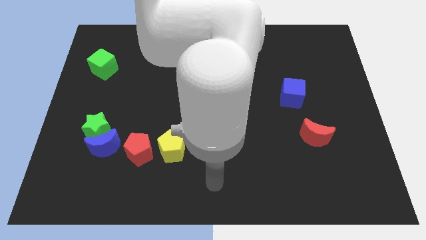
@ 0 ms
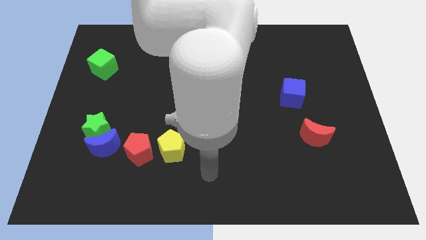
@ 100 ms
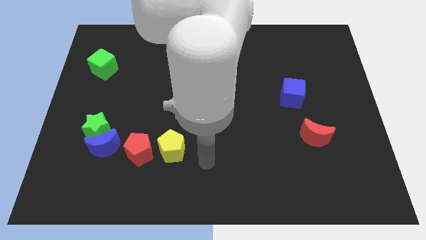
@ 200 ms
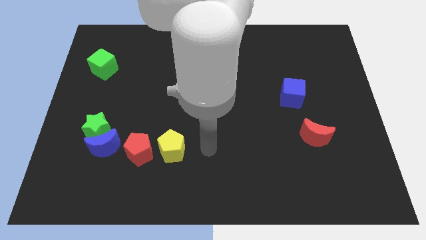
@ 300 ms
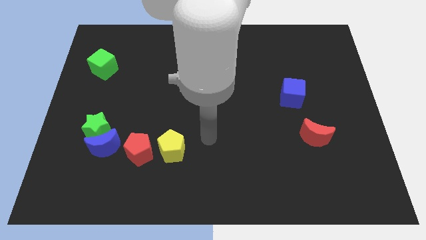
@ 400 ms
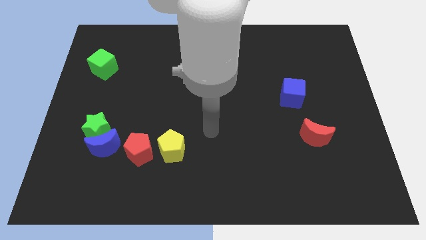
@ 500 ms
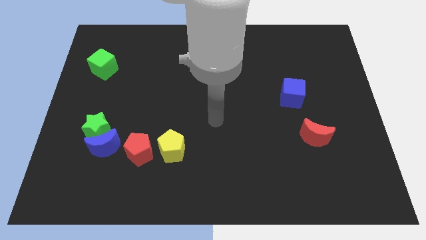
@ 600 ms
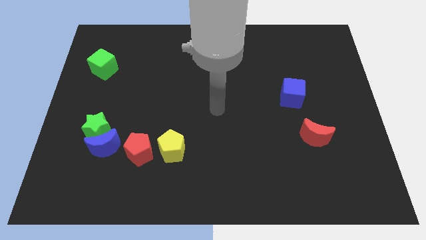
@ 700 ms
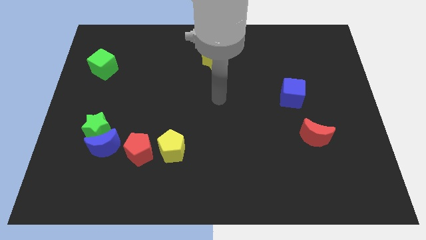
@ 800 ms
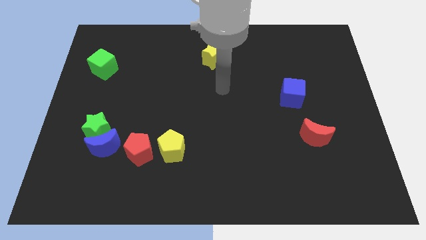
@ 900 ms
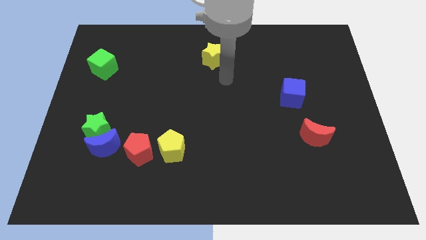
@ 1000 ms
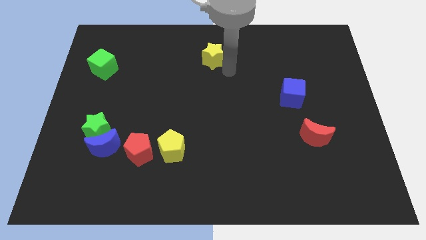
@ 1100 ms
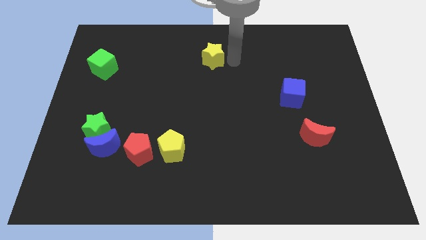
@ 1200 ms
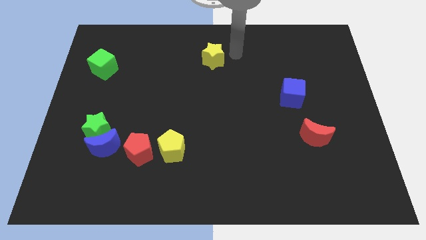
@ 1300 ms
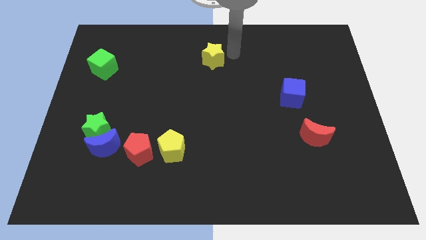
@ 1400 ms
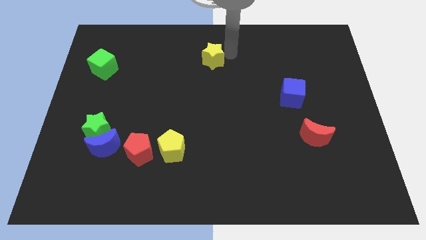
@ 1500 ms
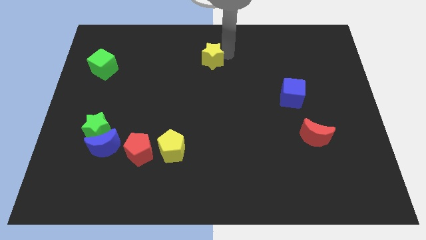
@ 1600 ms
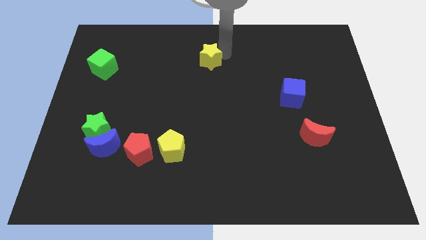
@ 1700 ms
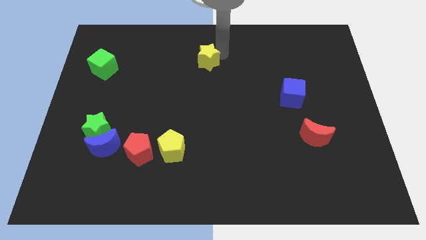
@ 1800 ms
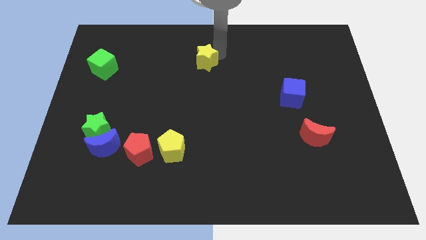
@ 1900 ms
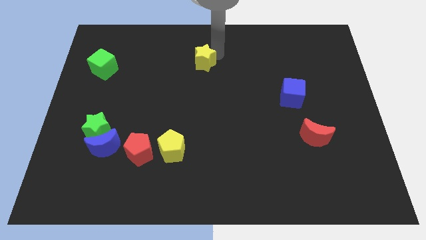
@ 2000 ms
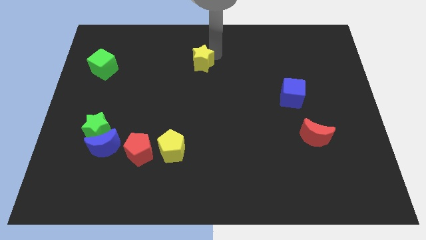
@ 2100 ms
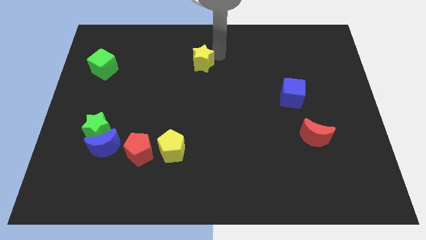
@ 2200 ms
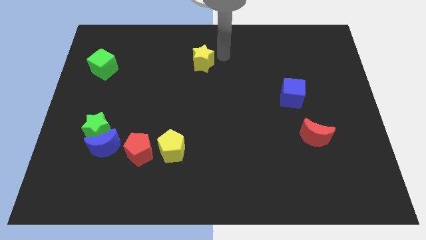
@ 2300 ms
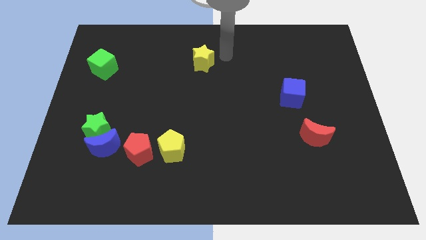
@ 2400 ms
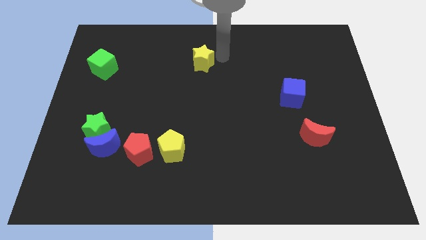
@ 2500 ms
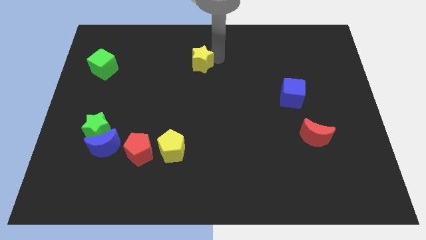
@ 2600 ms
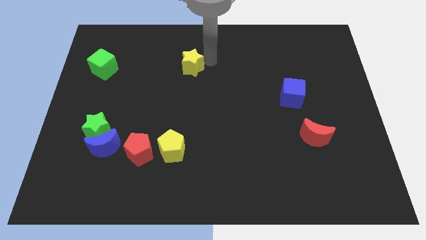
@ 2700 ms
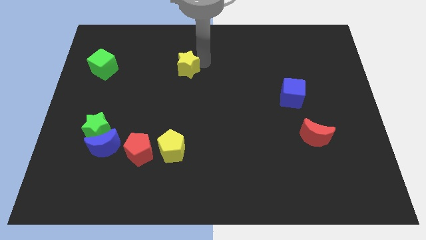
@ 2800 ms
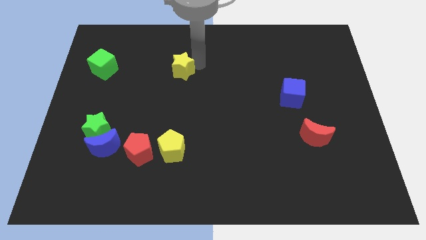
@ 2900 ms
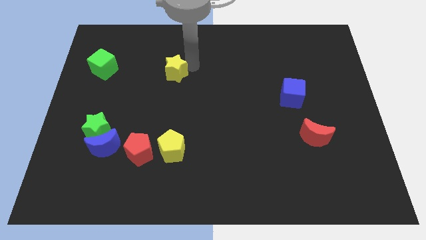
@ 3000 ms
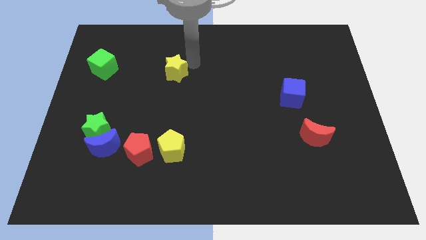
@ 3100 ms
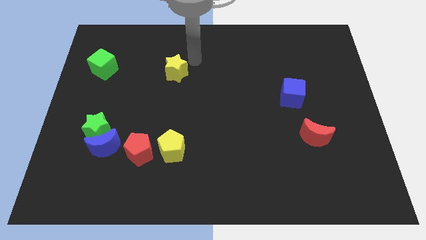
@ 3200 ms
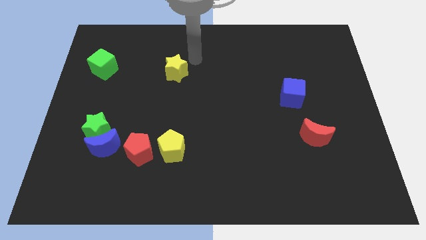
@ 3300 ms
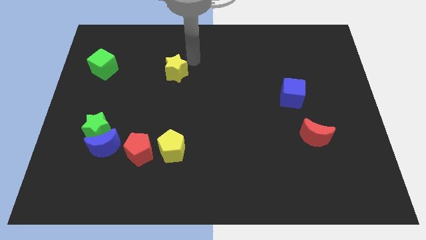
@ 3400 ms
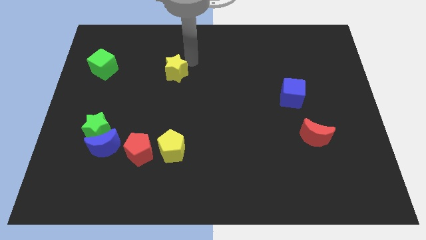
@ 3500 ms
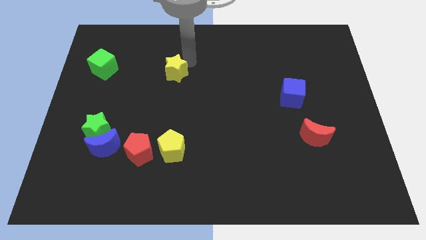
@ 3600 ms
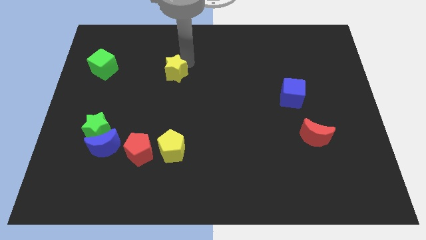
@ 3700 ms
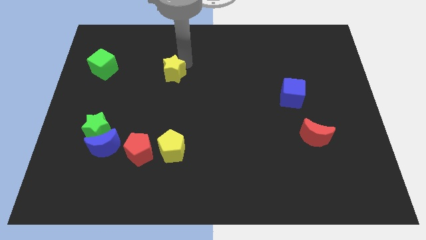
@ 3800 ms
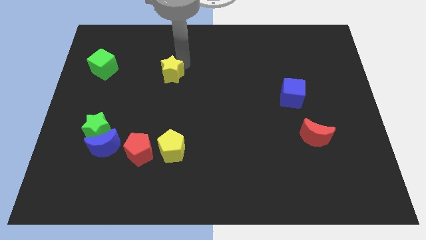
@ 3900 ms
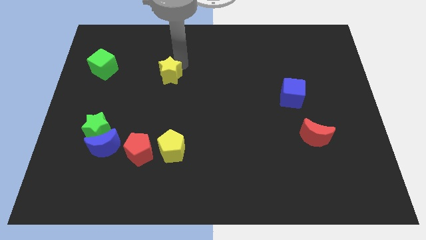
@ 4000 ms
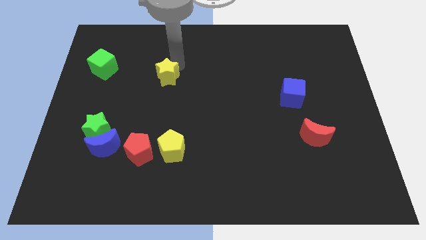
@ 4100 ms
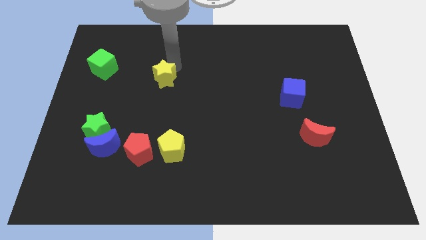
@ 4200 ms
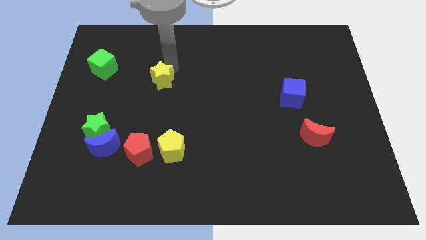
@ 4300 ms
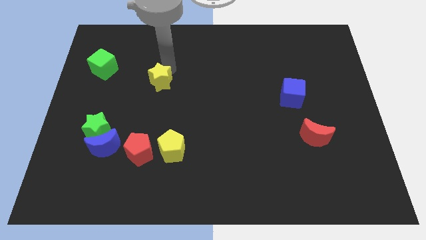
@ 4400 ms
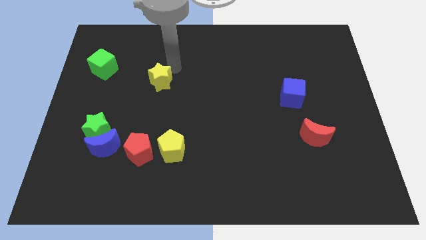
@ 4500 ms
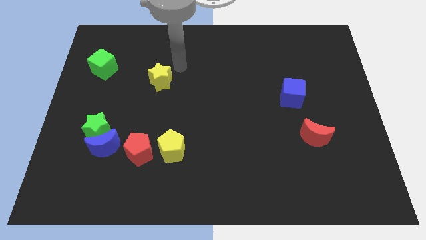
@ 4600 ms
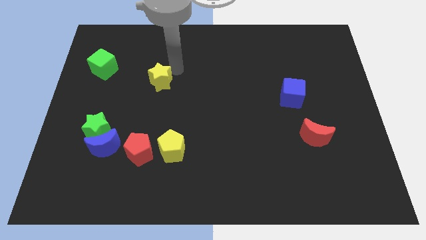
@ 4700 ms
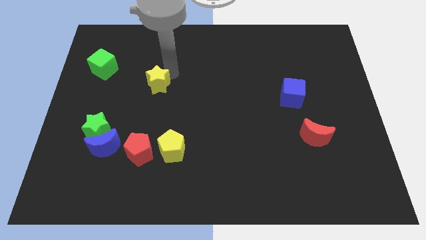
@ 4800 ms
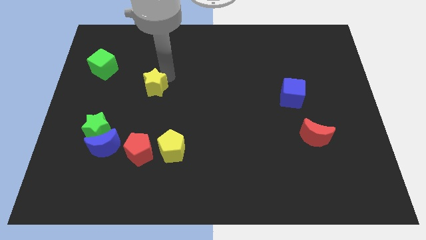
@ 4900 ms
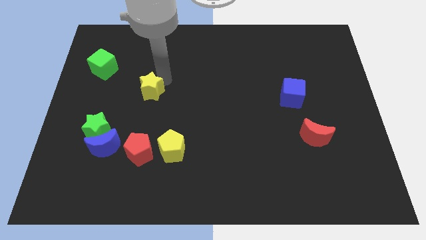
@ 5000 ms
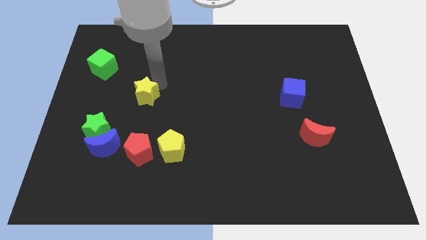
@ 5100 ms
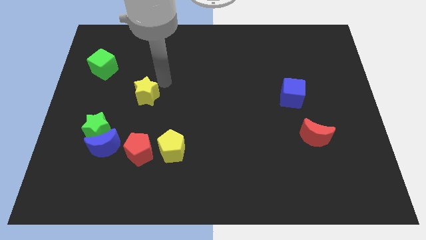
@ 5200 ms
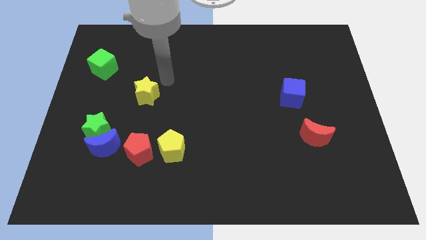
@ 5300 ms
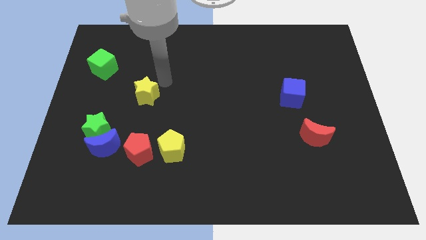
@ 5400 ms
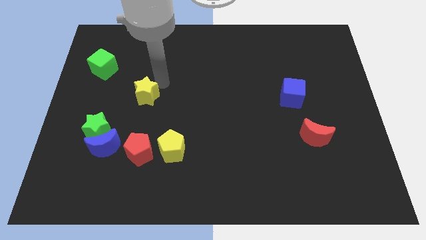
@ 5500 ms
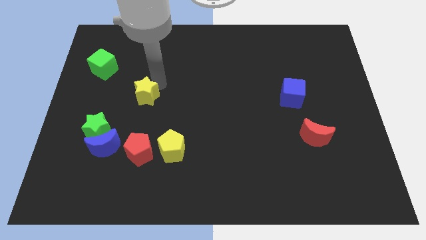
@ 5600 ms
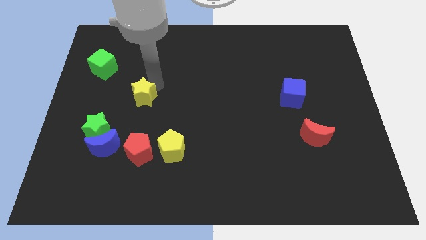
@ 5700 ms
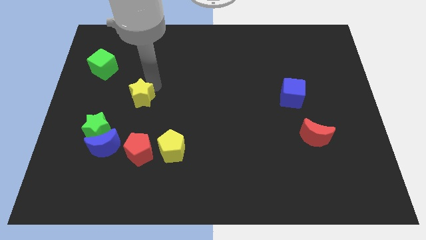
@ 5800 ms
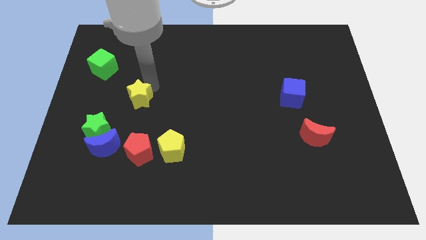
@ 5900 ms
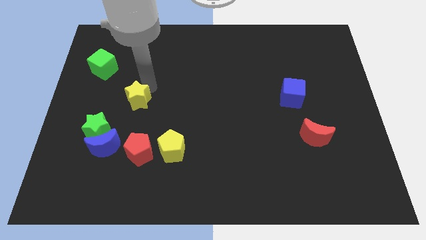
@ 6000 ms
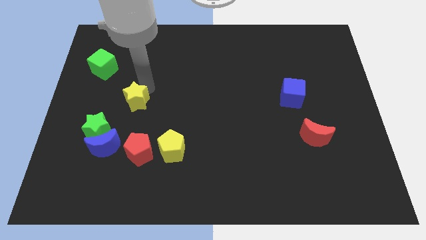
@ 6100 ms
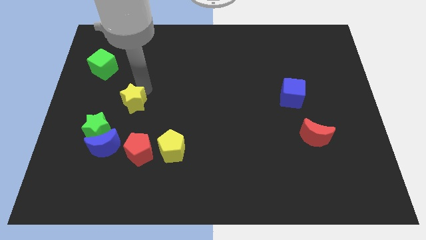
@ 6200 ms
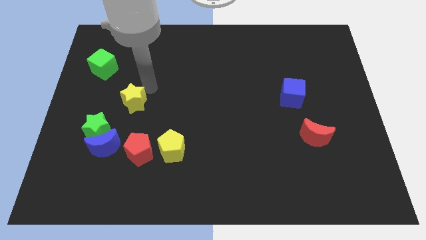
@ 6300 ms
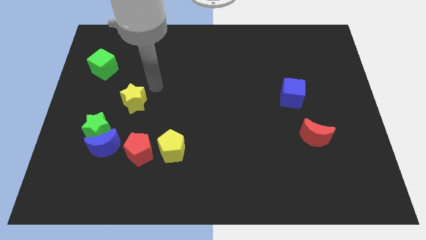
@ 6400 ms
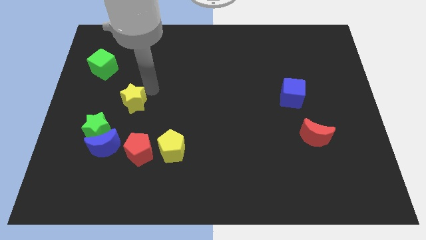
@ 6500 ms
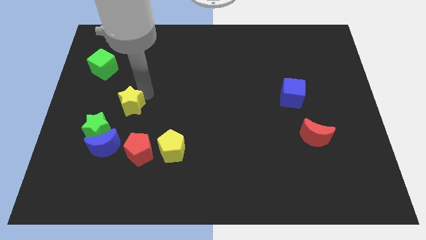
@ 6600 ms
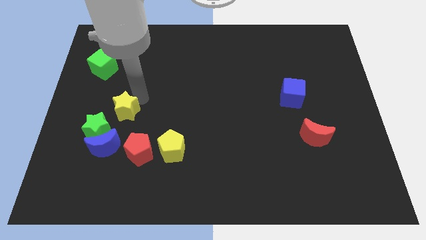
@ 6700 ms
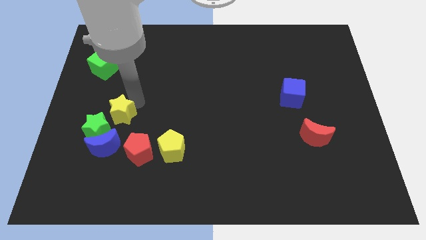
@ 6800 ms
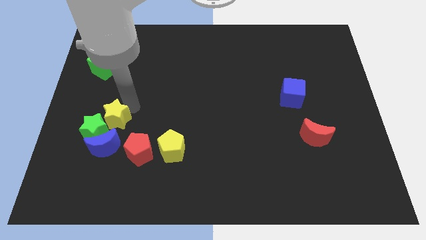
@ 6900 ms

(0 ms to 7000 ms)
slide the yellow star next to the green star
